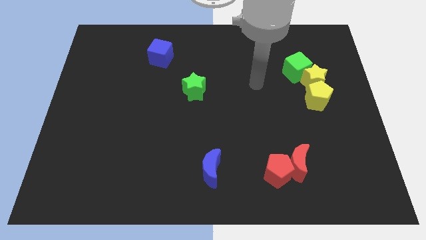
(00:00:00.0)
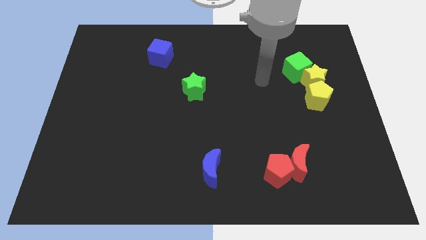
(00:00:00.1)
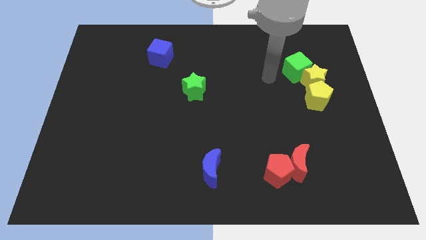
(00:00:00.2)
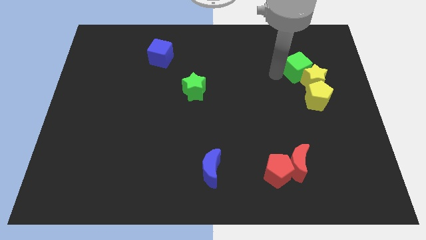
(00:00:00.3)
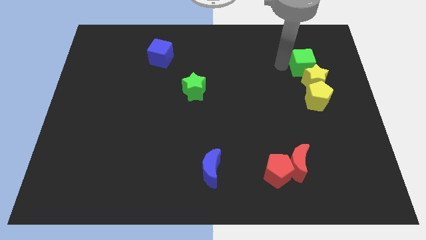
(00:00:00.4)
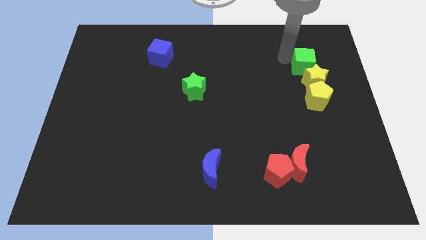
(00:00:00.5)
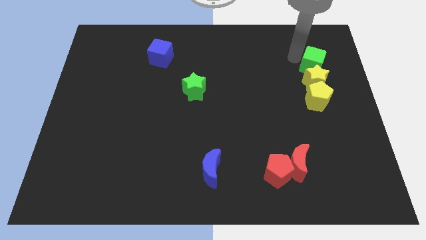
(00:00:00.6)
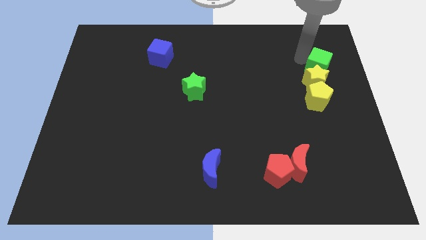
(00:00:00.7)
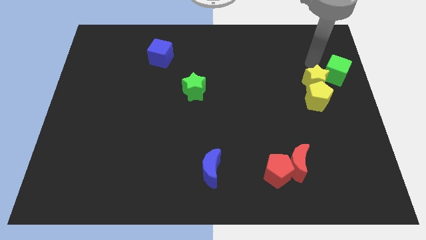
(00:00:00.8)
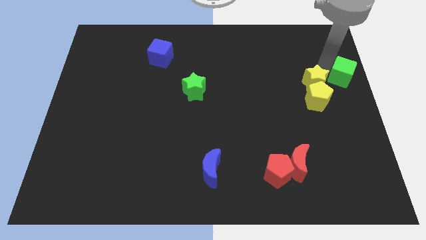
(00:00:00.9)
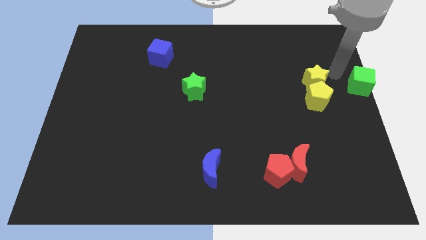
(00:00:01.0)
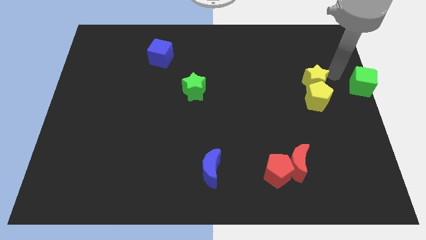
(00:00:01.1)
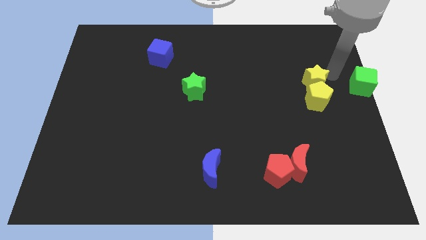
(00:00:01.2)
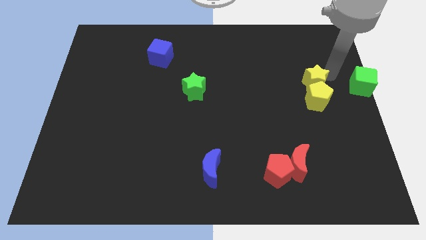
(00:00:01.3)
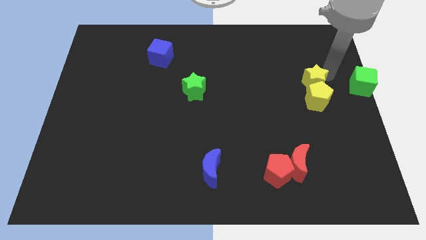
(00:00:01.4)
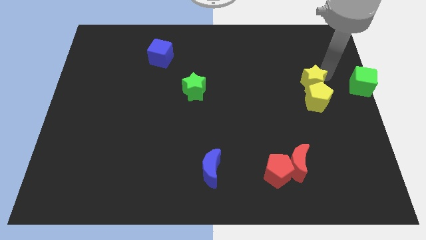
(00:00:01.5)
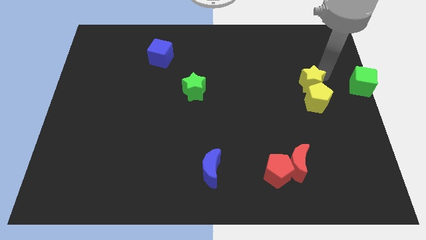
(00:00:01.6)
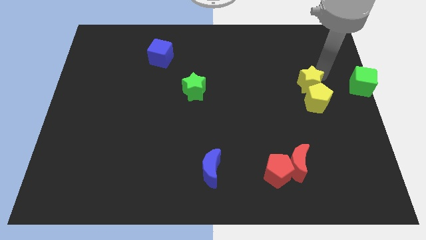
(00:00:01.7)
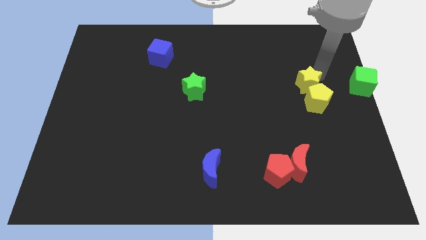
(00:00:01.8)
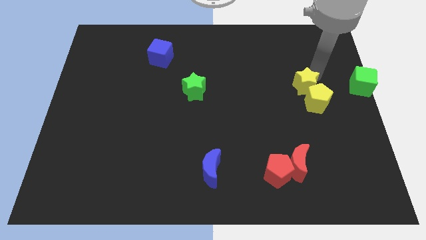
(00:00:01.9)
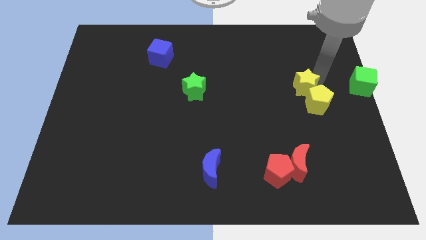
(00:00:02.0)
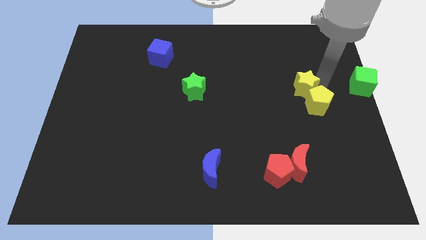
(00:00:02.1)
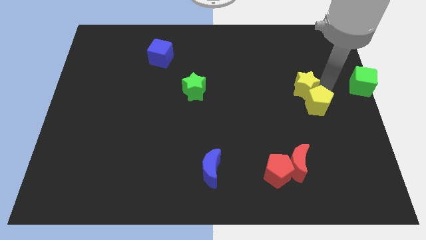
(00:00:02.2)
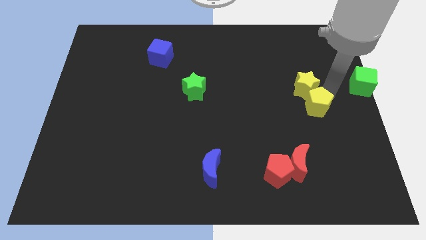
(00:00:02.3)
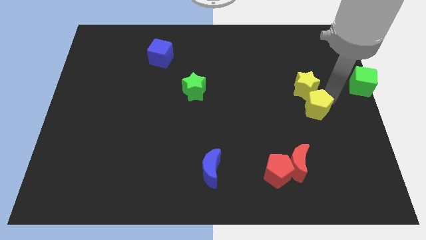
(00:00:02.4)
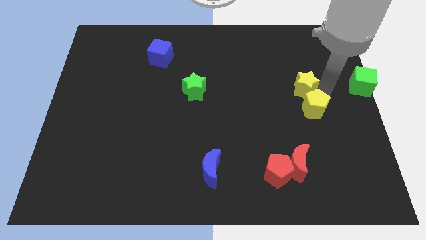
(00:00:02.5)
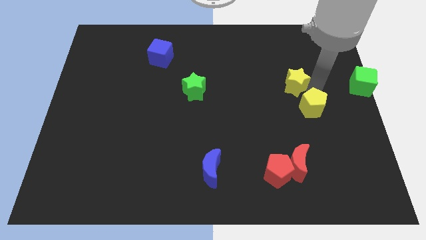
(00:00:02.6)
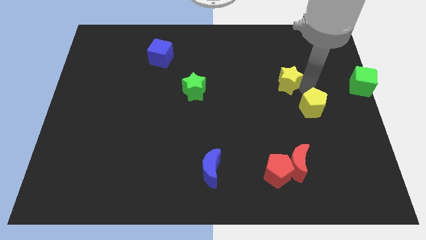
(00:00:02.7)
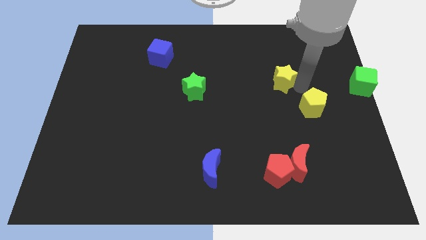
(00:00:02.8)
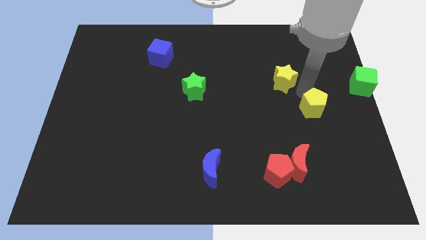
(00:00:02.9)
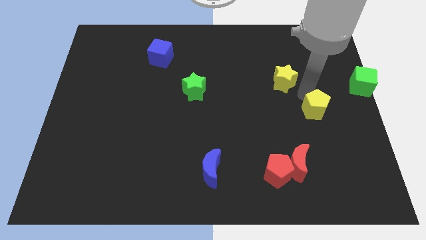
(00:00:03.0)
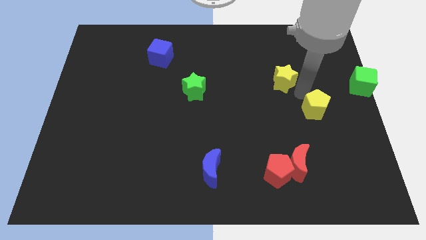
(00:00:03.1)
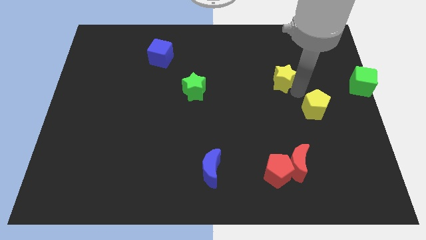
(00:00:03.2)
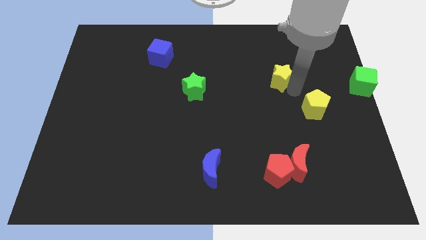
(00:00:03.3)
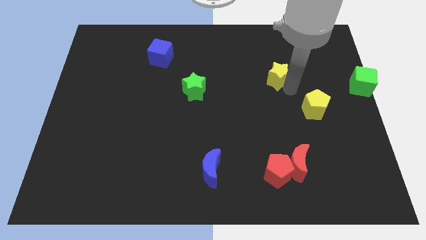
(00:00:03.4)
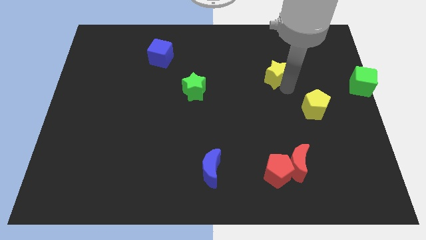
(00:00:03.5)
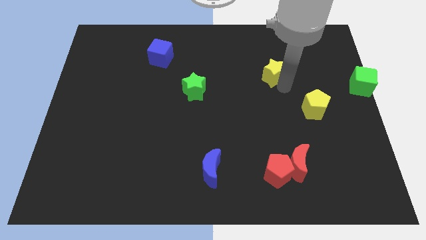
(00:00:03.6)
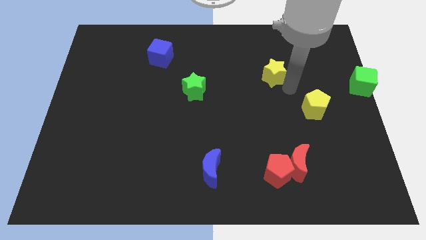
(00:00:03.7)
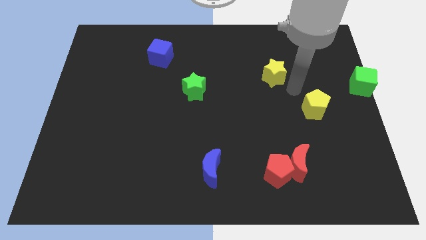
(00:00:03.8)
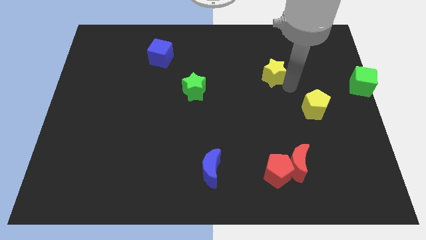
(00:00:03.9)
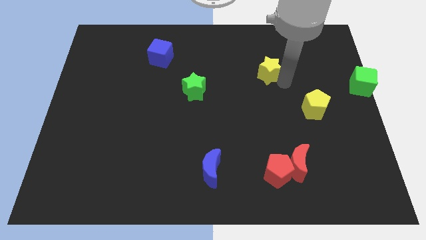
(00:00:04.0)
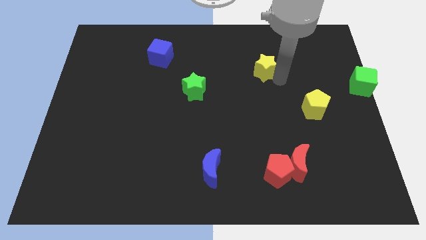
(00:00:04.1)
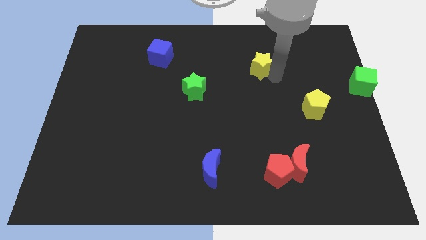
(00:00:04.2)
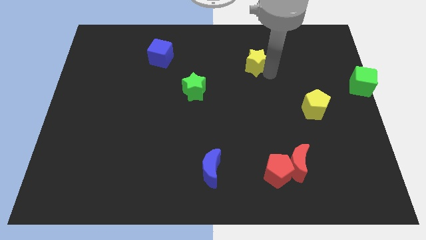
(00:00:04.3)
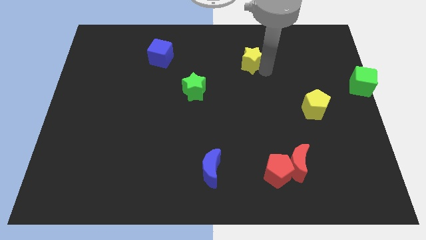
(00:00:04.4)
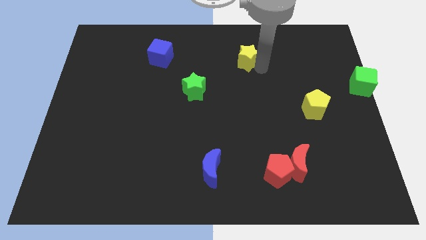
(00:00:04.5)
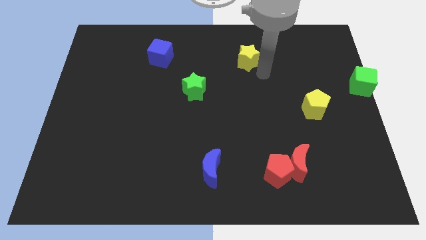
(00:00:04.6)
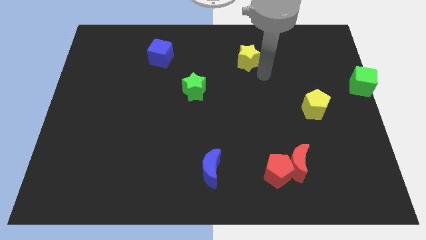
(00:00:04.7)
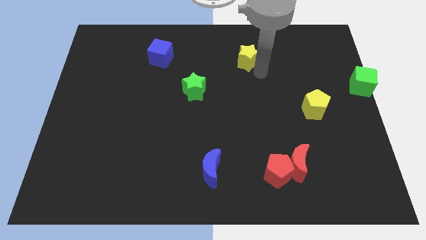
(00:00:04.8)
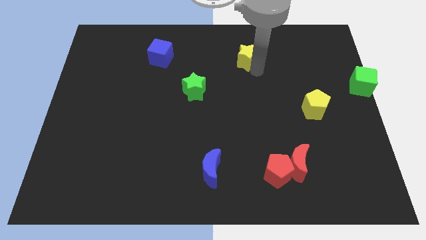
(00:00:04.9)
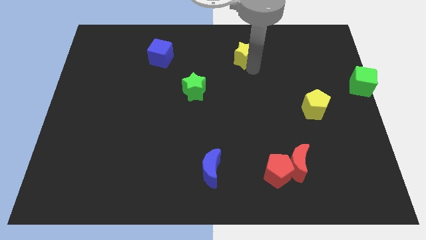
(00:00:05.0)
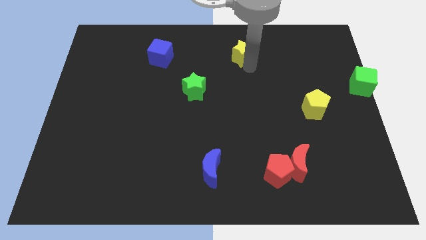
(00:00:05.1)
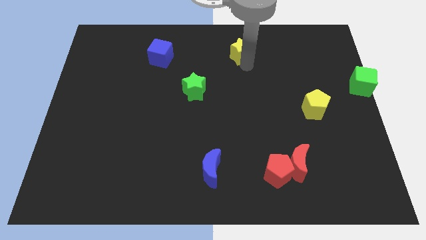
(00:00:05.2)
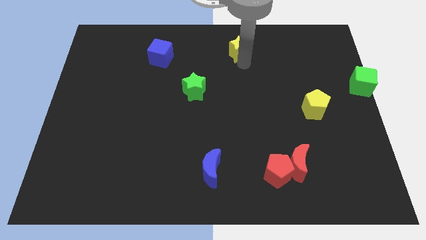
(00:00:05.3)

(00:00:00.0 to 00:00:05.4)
push the yellow star to the towards your base

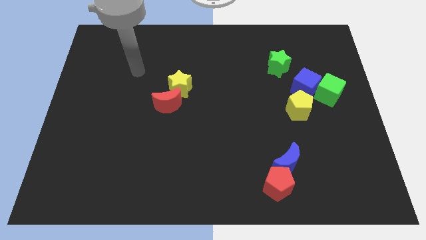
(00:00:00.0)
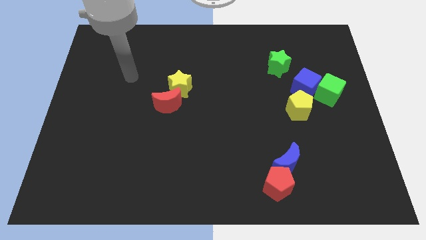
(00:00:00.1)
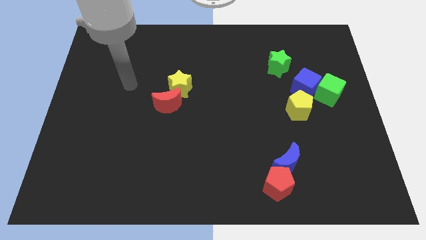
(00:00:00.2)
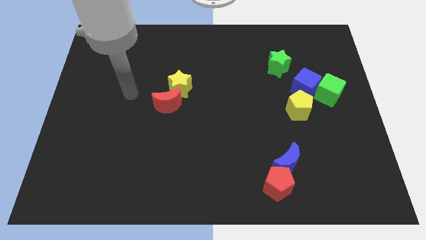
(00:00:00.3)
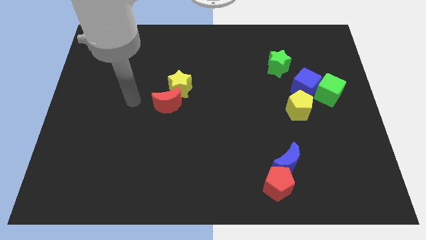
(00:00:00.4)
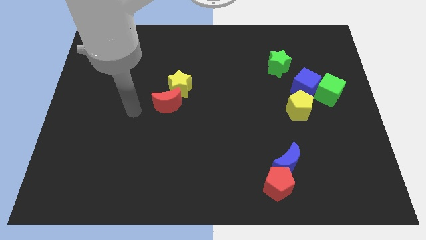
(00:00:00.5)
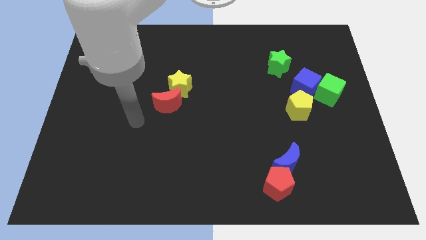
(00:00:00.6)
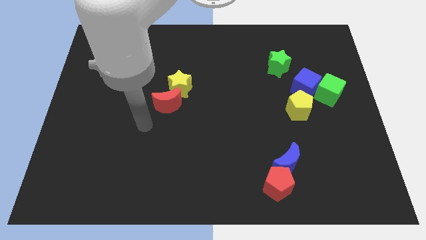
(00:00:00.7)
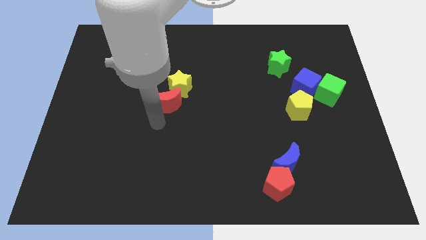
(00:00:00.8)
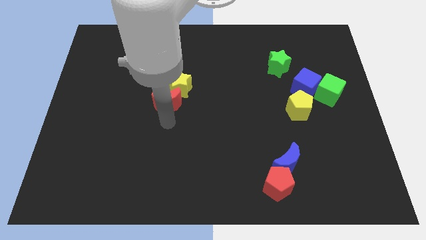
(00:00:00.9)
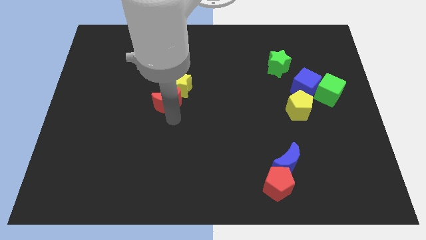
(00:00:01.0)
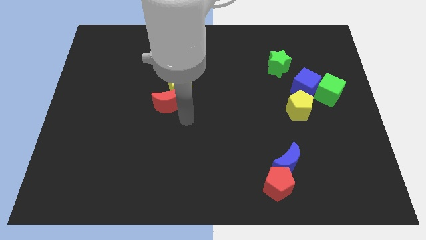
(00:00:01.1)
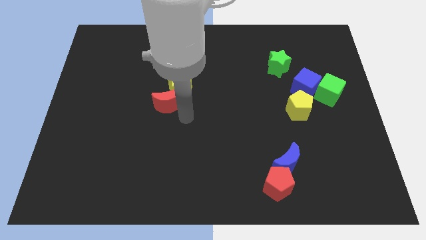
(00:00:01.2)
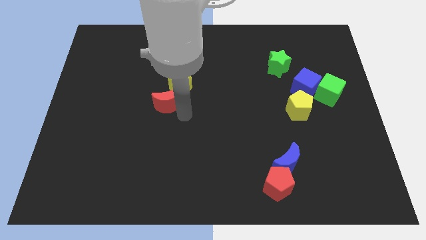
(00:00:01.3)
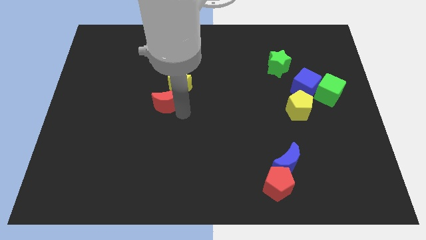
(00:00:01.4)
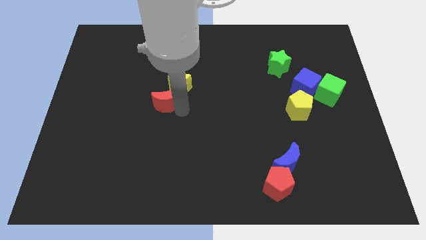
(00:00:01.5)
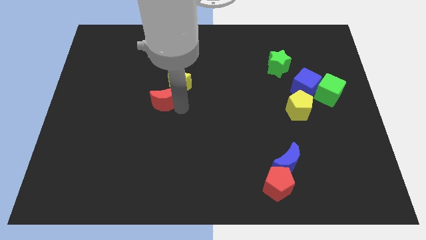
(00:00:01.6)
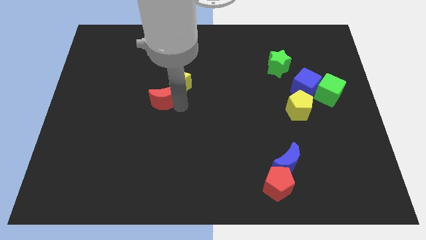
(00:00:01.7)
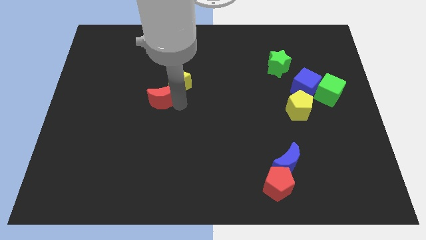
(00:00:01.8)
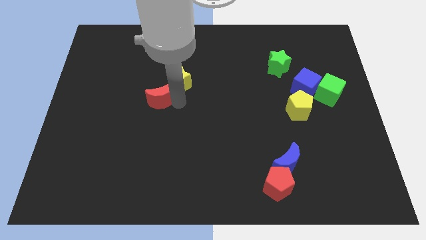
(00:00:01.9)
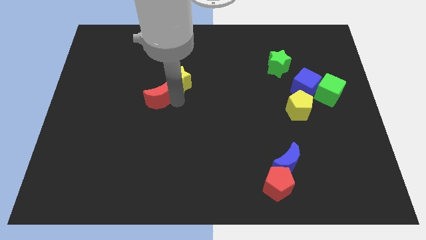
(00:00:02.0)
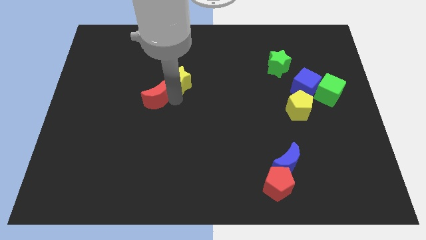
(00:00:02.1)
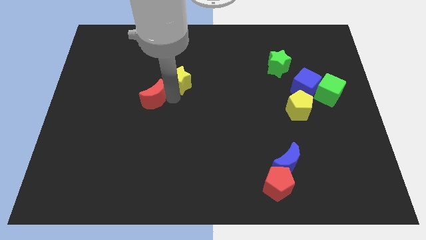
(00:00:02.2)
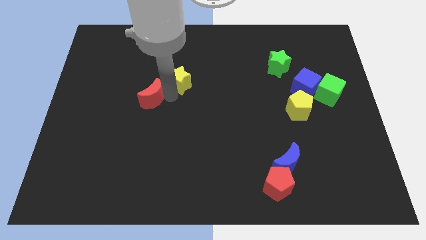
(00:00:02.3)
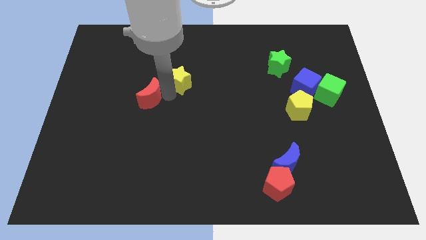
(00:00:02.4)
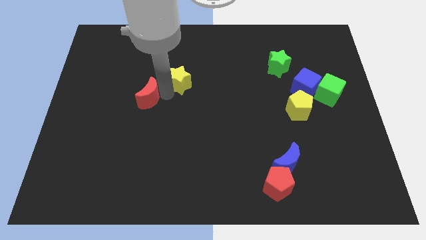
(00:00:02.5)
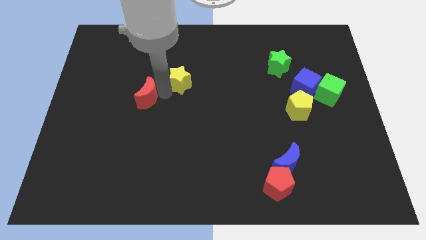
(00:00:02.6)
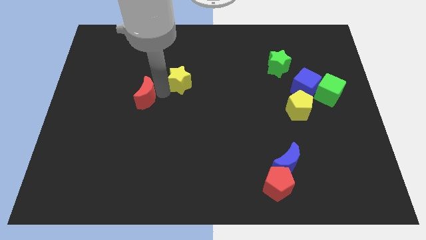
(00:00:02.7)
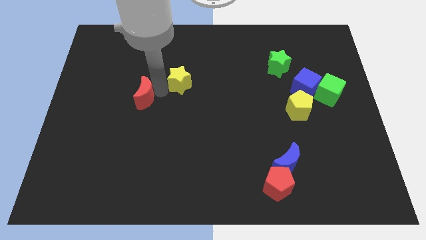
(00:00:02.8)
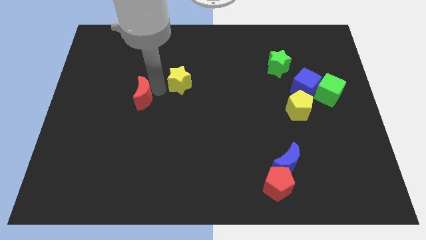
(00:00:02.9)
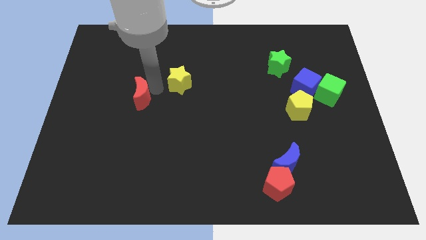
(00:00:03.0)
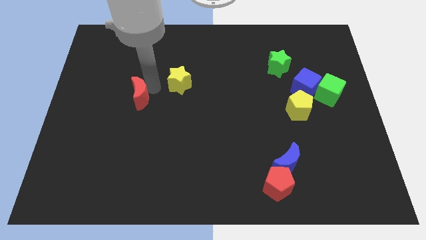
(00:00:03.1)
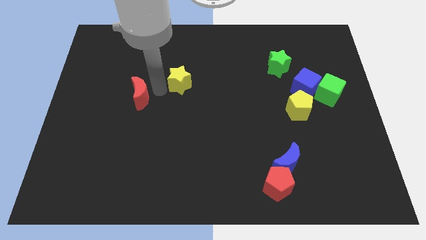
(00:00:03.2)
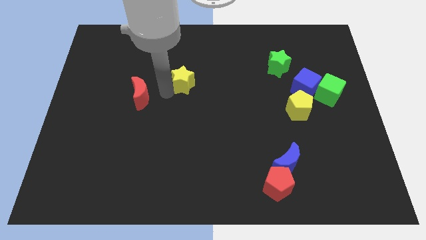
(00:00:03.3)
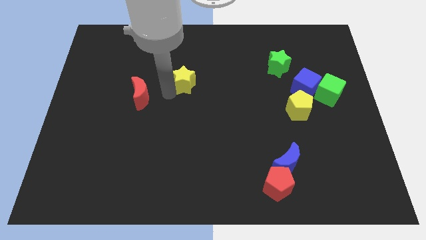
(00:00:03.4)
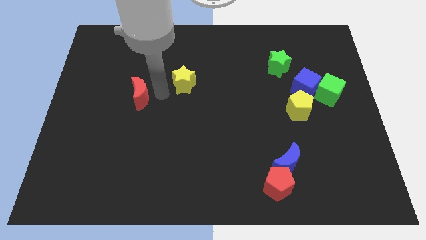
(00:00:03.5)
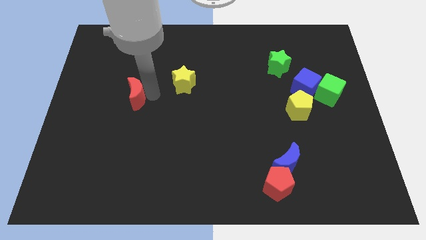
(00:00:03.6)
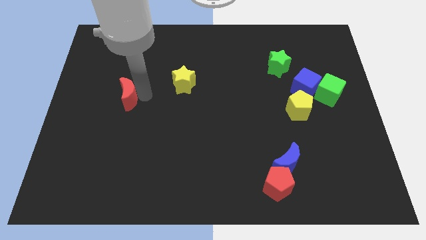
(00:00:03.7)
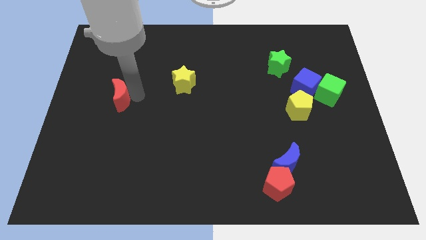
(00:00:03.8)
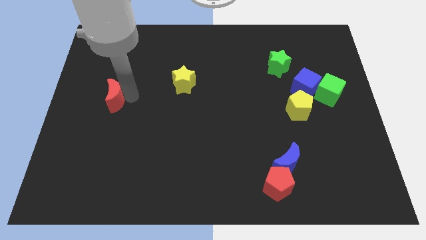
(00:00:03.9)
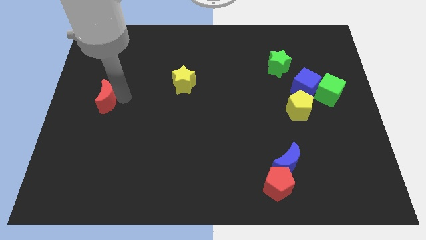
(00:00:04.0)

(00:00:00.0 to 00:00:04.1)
slide the red moon to the left side
